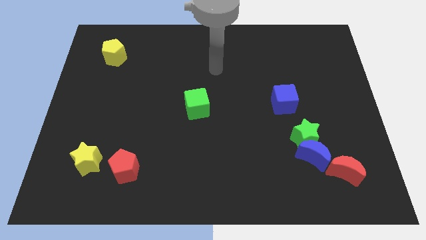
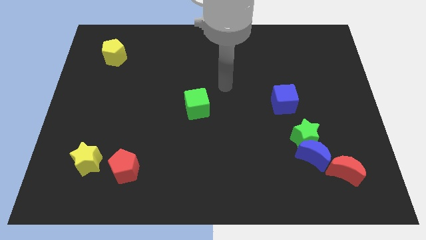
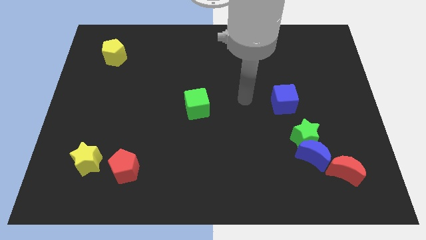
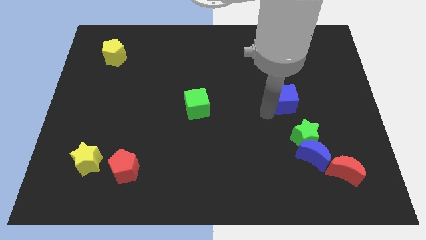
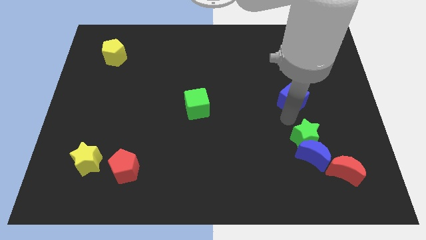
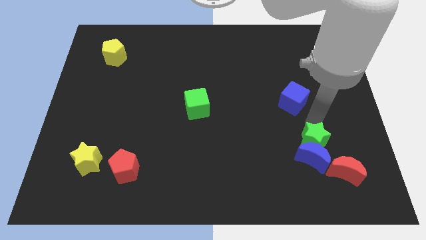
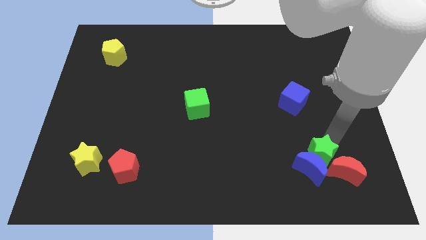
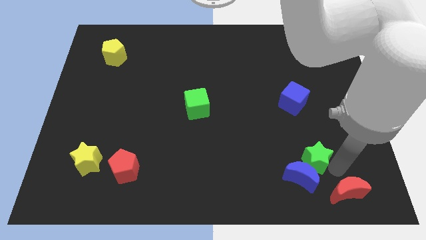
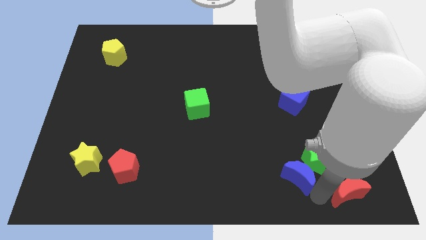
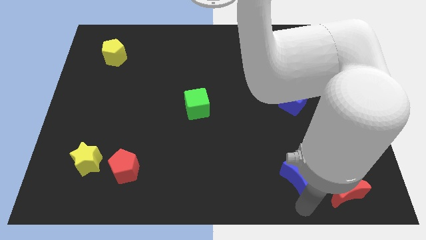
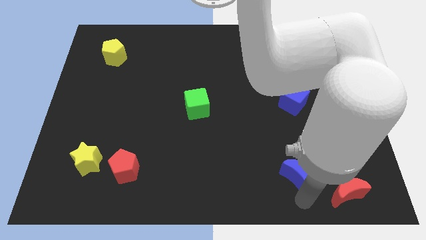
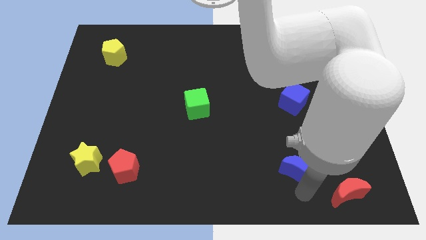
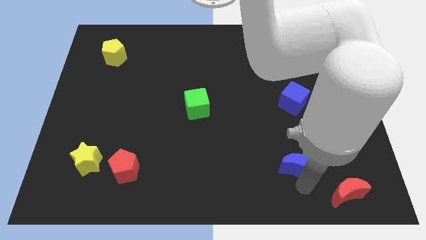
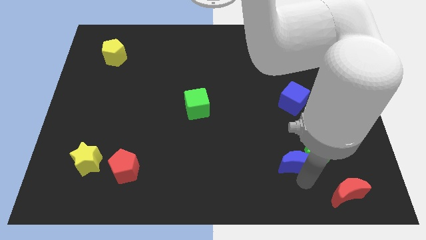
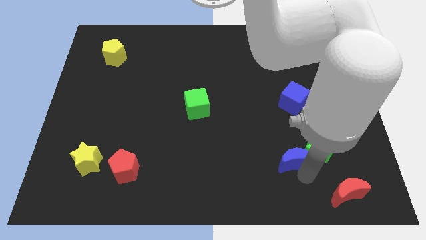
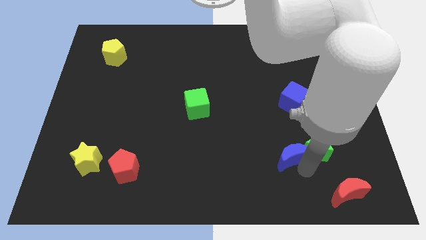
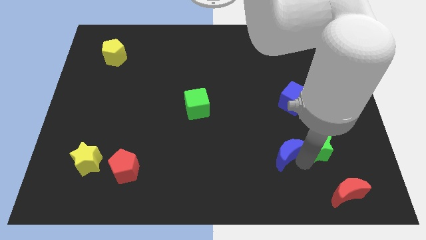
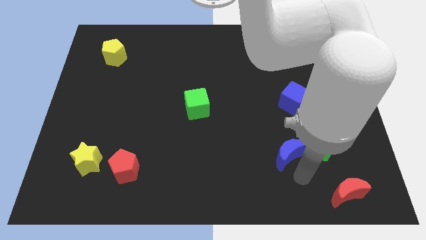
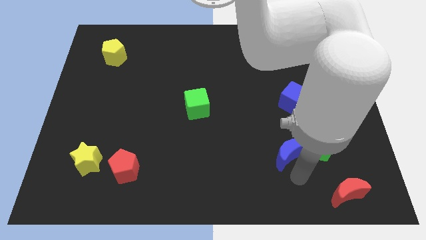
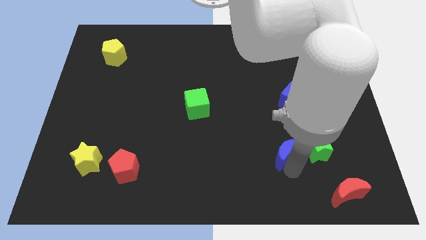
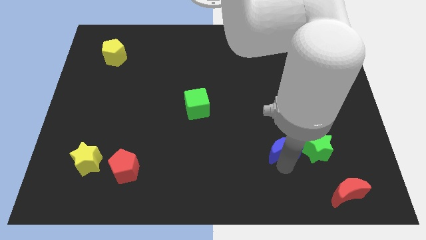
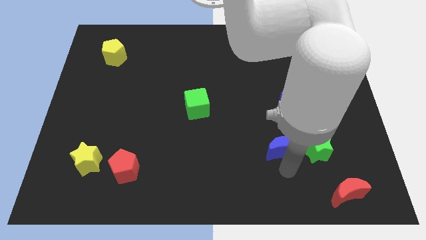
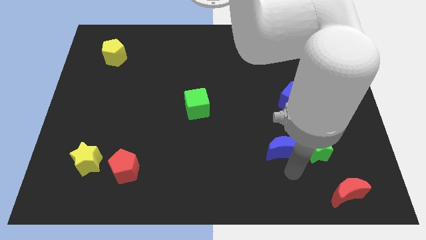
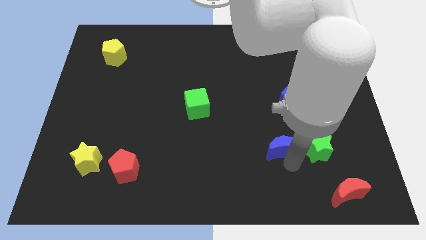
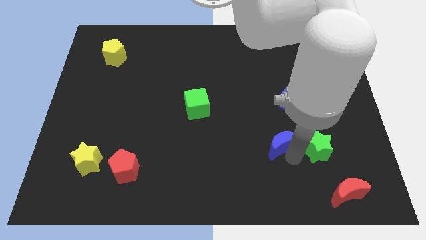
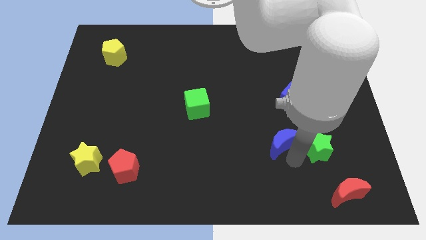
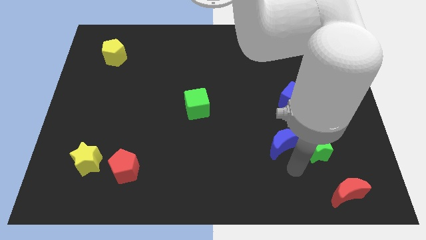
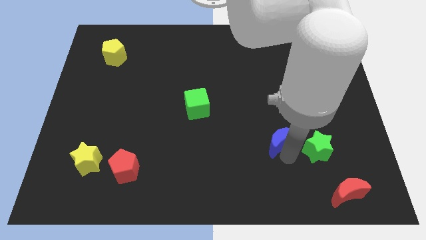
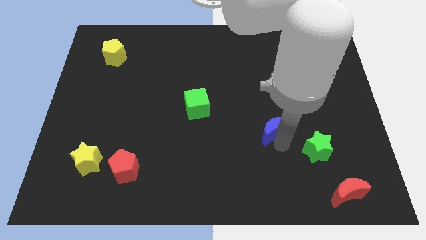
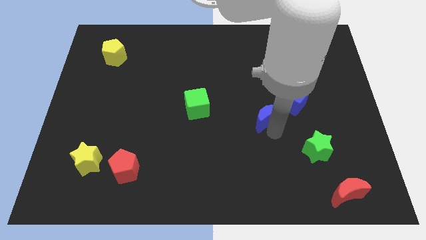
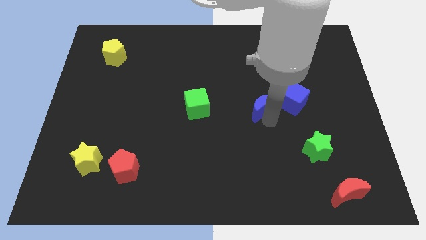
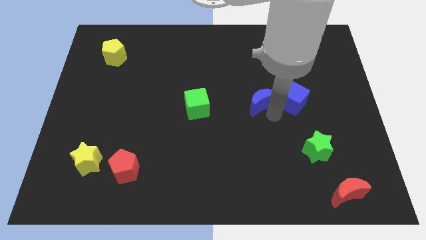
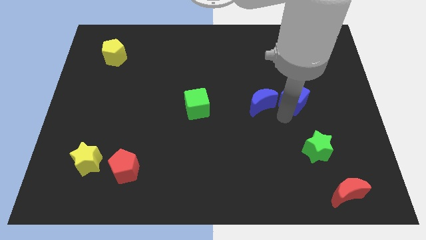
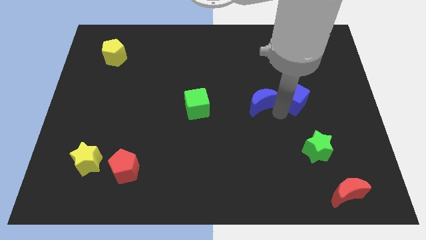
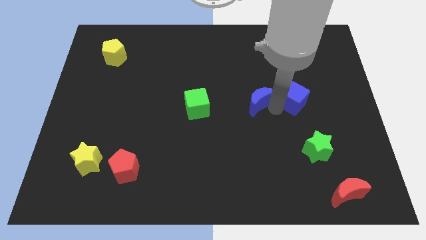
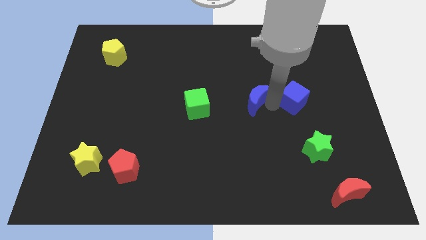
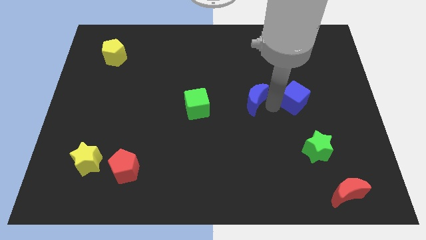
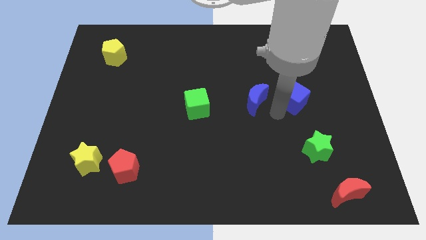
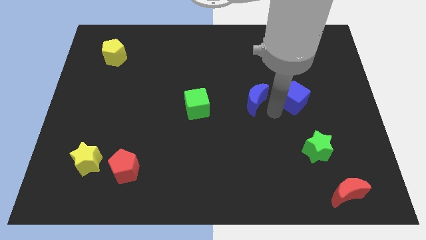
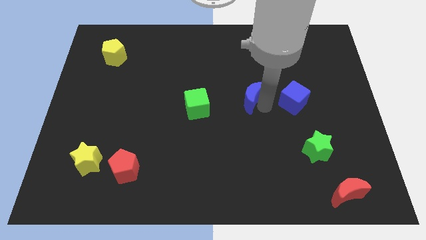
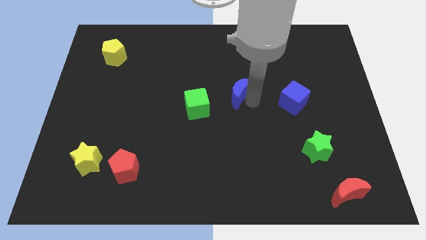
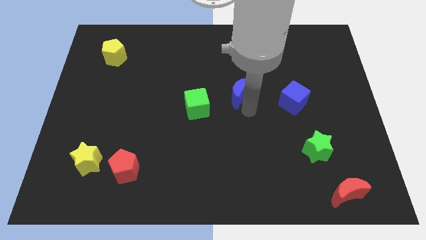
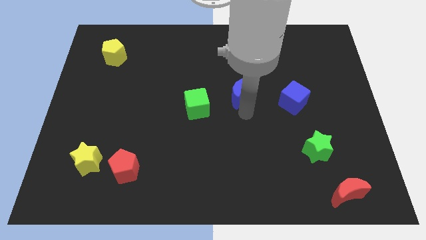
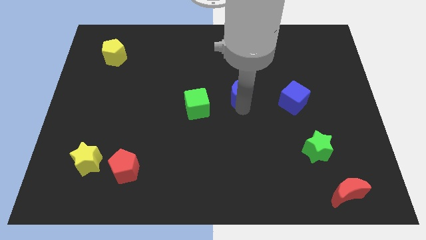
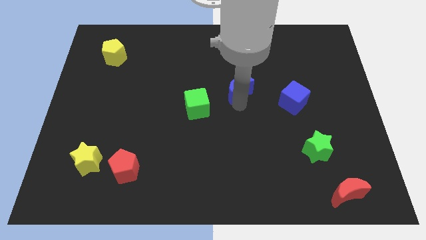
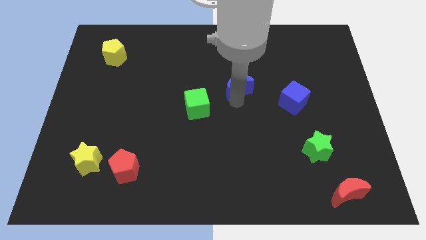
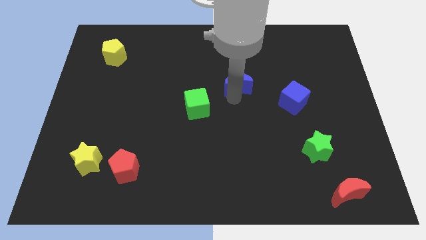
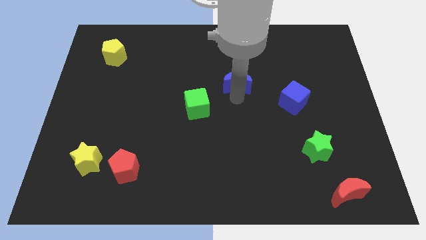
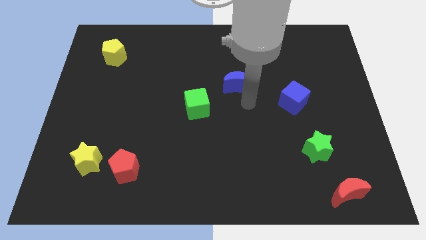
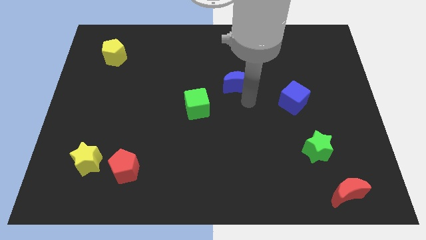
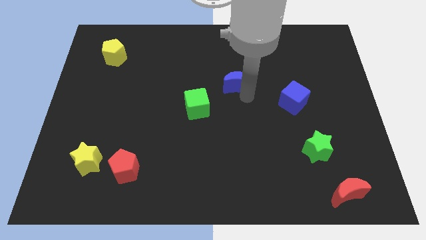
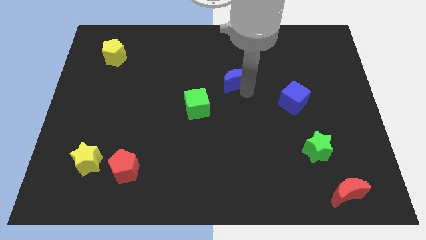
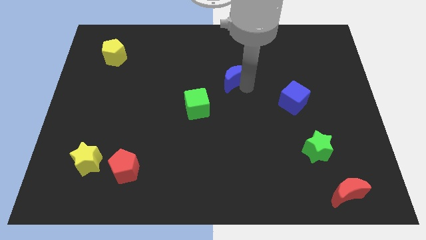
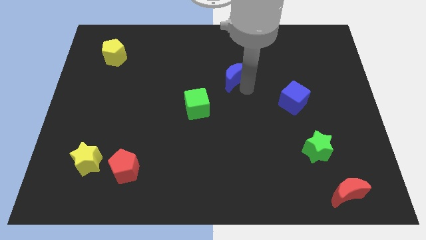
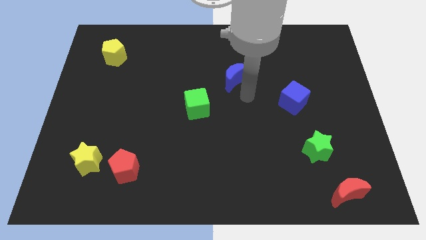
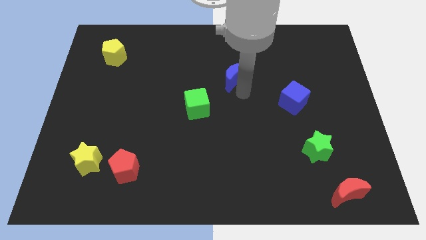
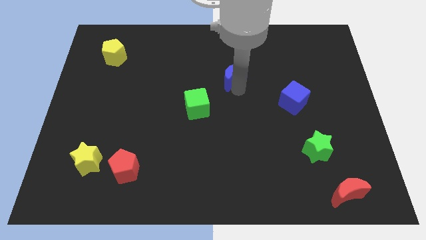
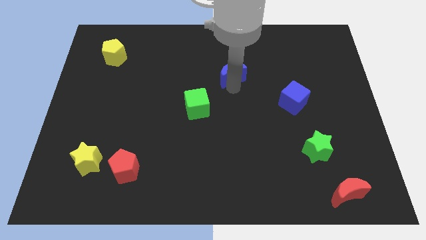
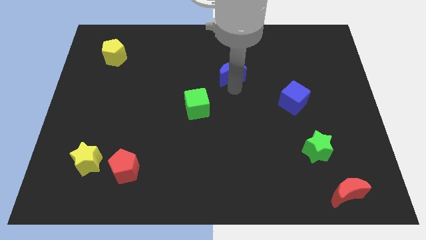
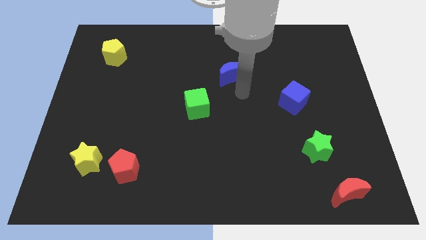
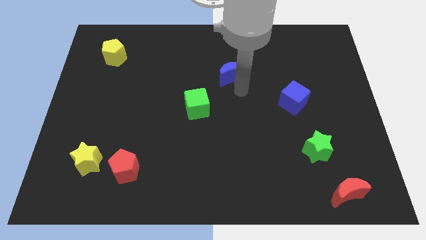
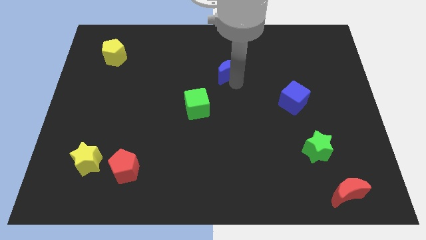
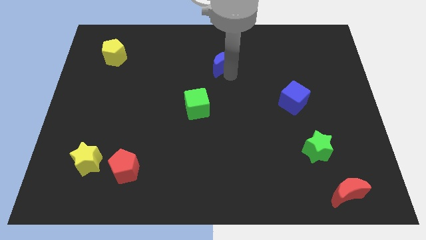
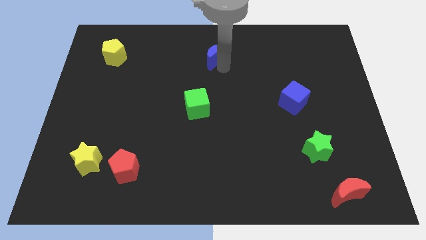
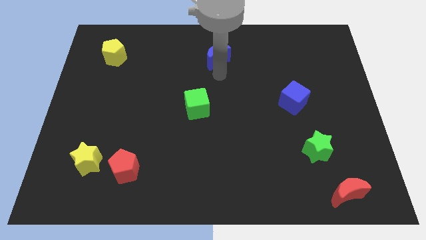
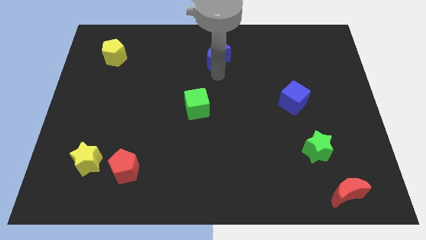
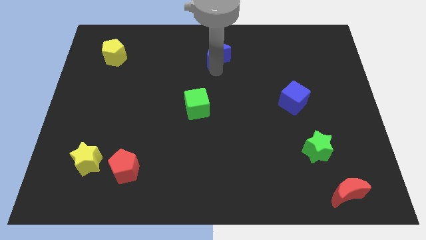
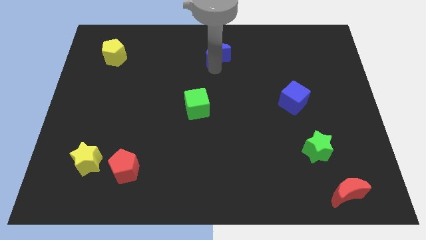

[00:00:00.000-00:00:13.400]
slide the blue moon to the towards your base
